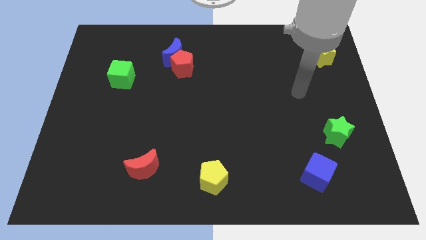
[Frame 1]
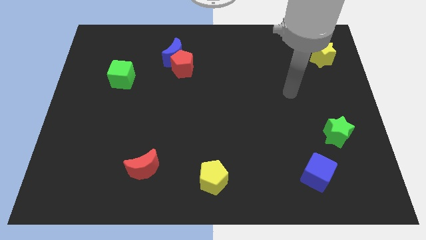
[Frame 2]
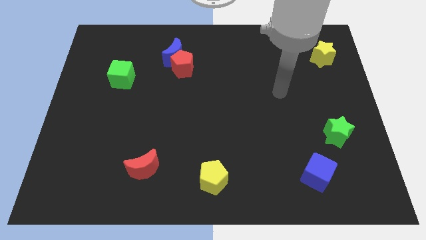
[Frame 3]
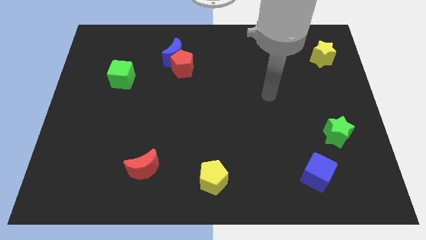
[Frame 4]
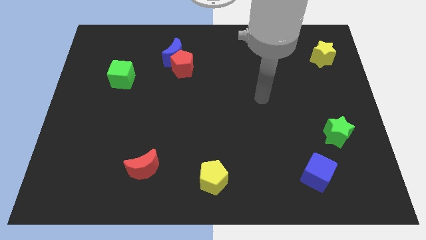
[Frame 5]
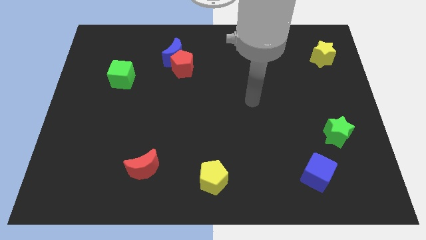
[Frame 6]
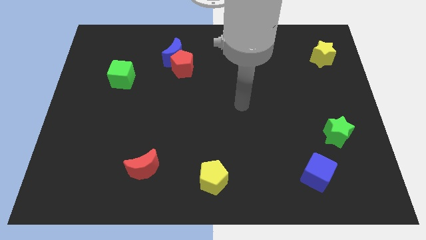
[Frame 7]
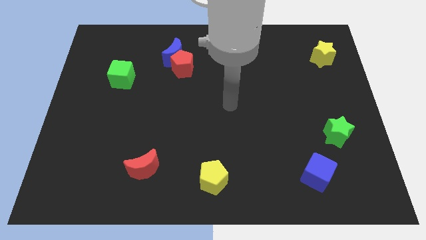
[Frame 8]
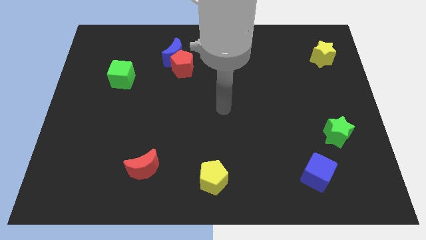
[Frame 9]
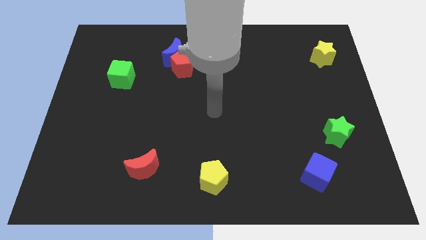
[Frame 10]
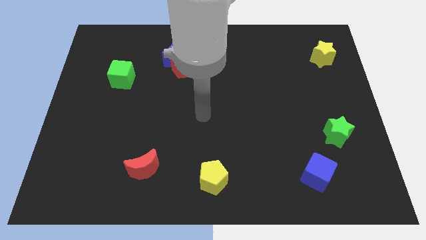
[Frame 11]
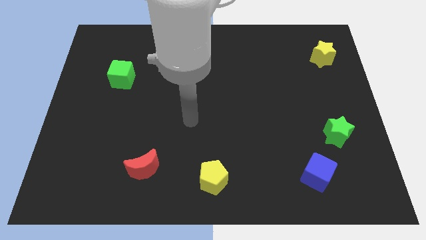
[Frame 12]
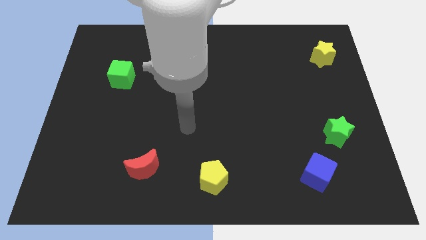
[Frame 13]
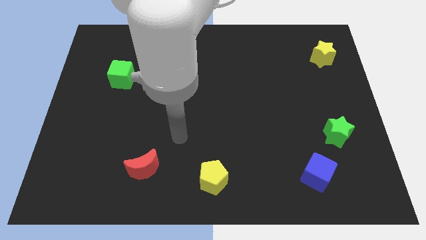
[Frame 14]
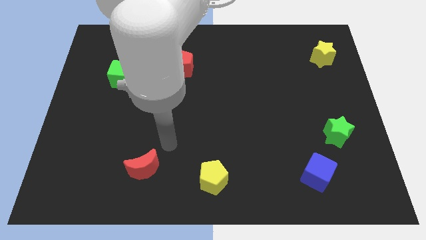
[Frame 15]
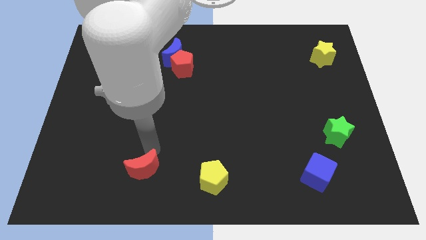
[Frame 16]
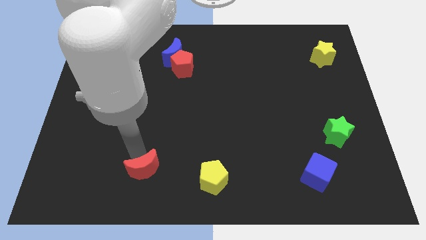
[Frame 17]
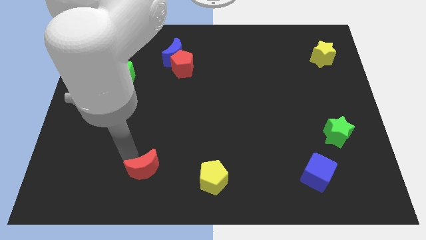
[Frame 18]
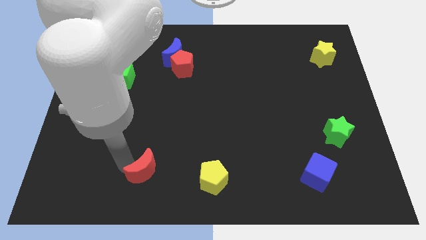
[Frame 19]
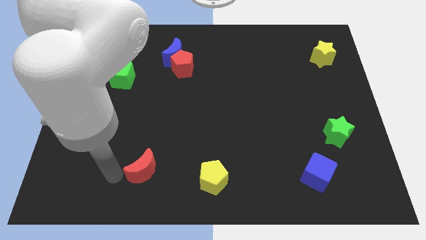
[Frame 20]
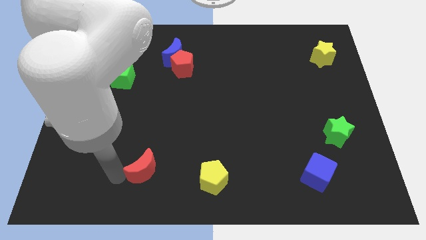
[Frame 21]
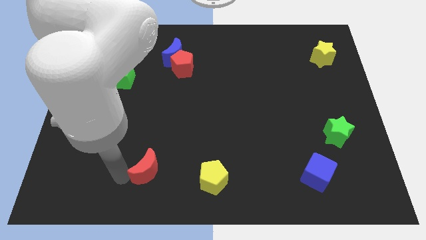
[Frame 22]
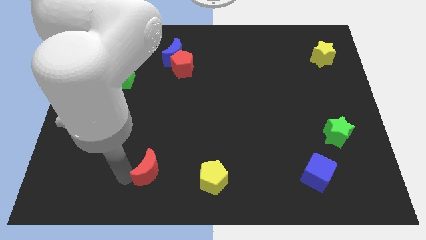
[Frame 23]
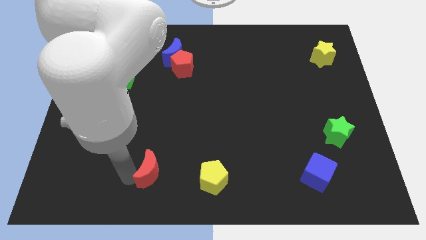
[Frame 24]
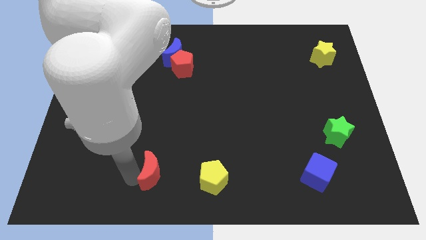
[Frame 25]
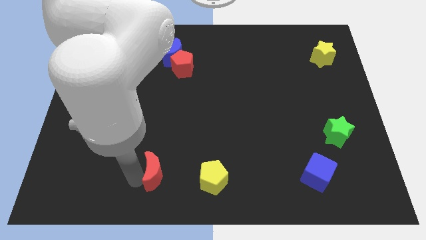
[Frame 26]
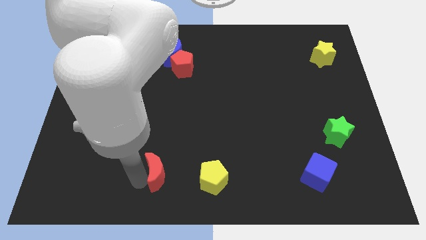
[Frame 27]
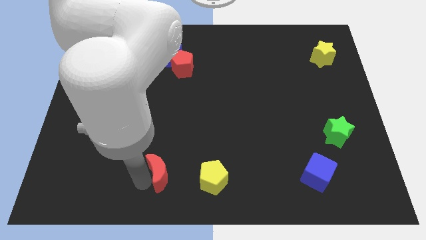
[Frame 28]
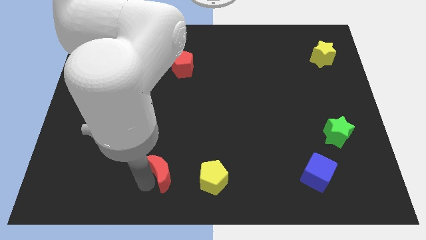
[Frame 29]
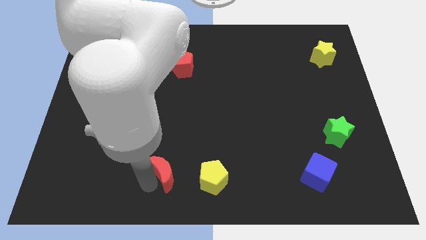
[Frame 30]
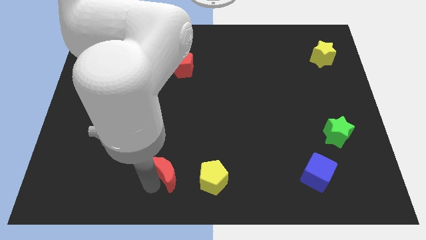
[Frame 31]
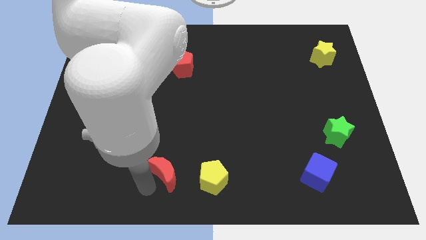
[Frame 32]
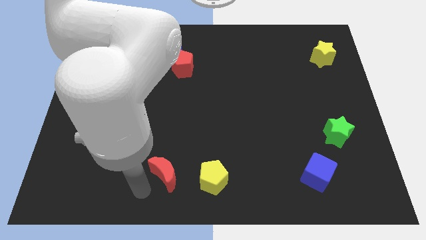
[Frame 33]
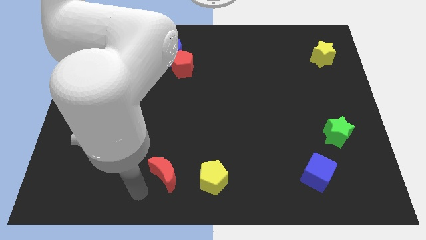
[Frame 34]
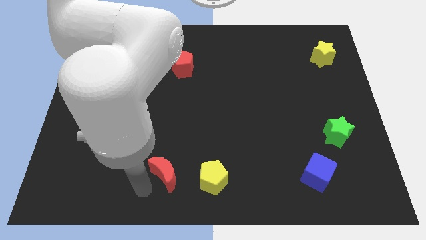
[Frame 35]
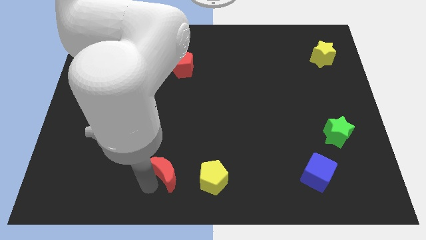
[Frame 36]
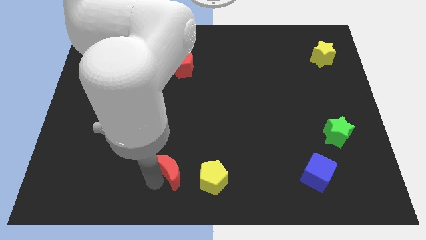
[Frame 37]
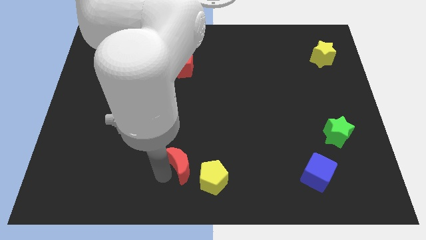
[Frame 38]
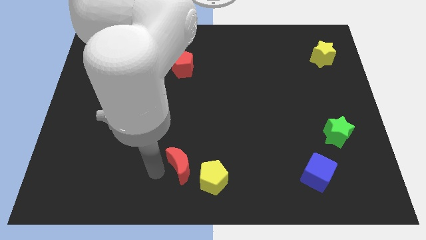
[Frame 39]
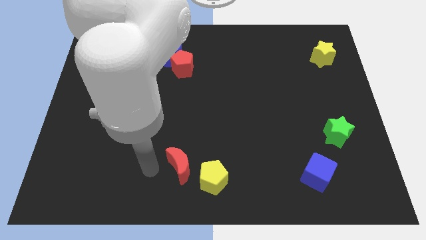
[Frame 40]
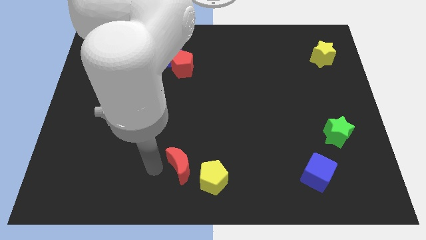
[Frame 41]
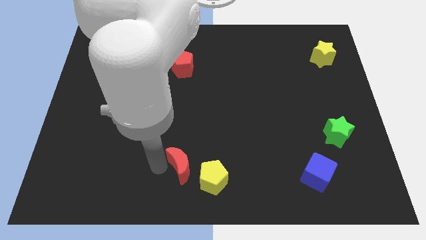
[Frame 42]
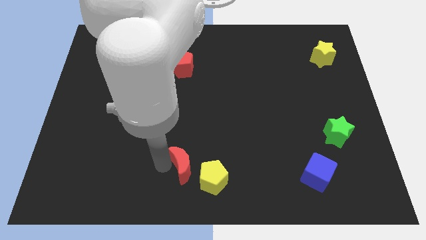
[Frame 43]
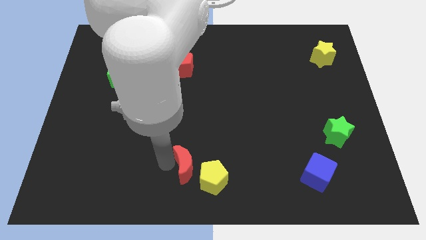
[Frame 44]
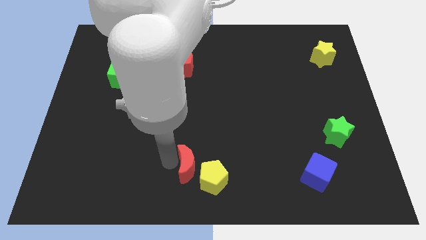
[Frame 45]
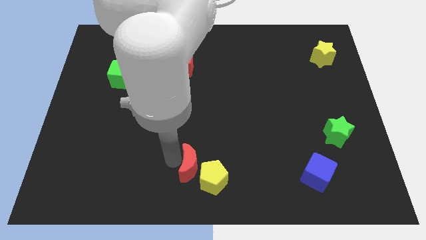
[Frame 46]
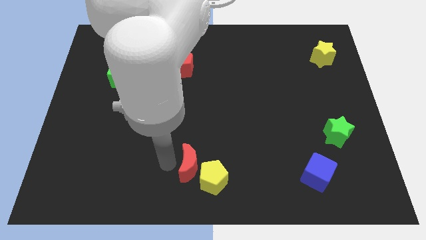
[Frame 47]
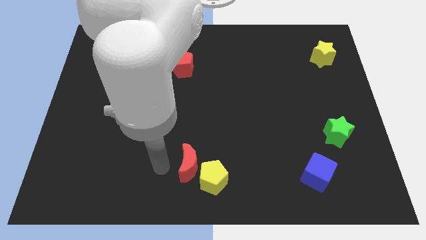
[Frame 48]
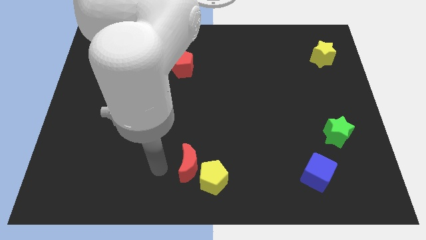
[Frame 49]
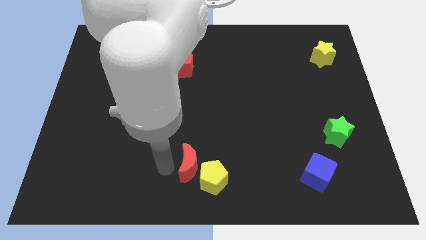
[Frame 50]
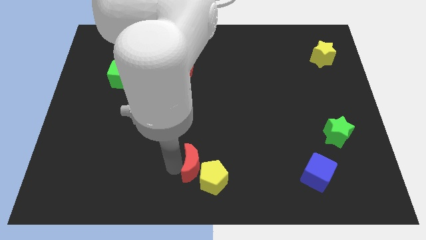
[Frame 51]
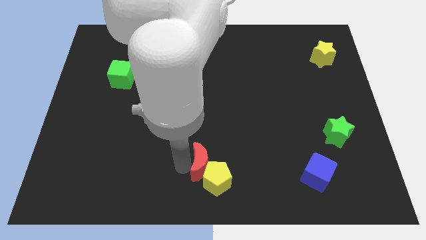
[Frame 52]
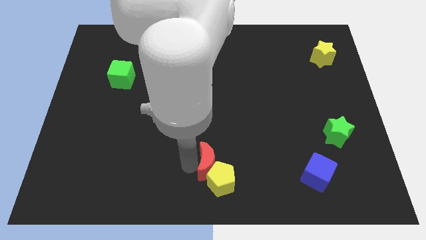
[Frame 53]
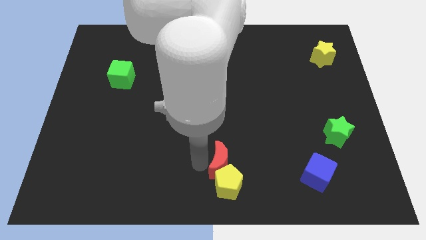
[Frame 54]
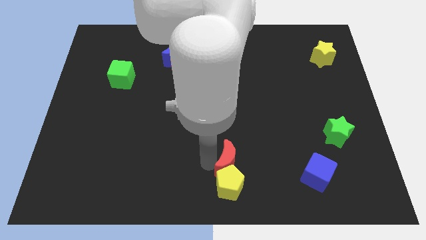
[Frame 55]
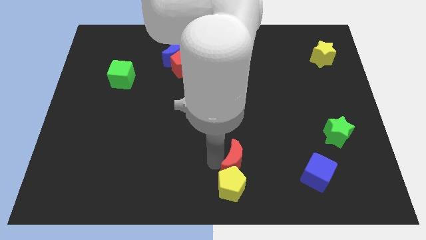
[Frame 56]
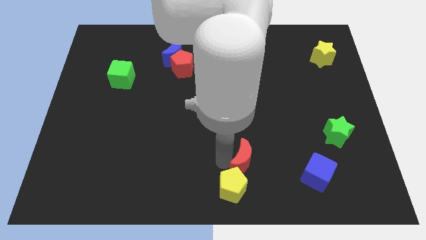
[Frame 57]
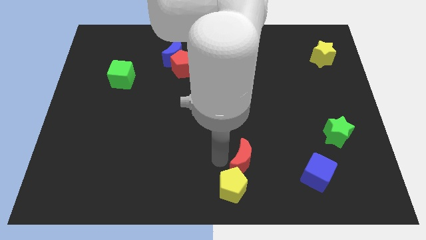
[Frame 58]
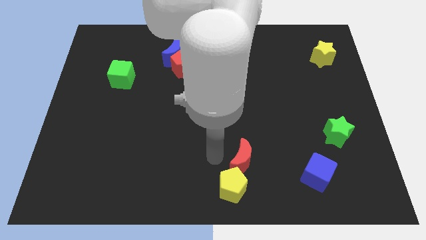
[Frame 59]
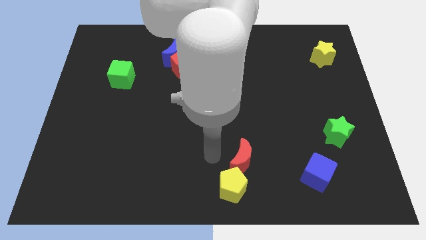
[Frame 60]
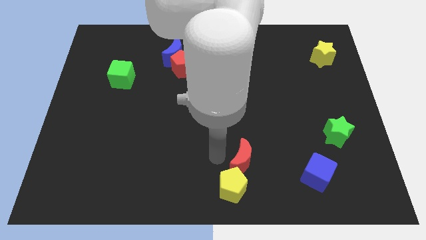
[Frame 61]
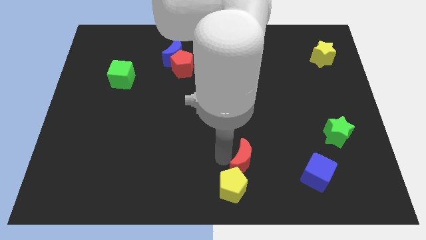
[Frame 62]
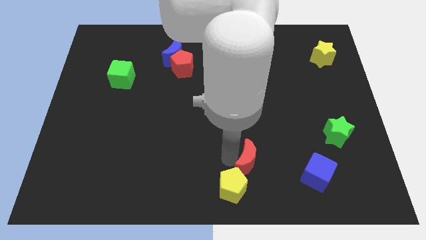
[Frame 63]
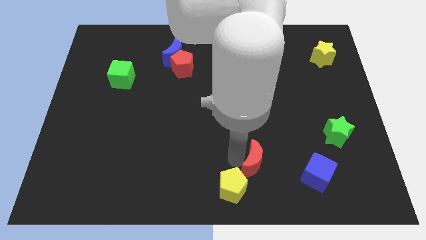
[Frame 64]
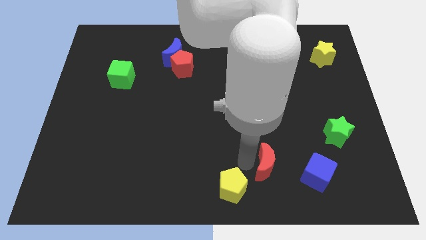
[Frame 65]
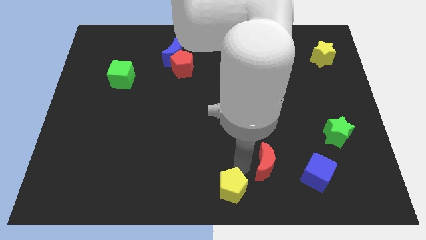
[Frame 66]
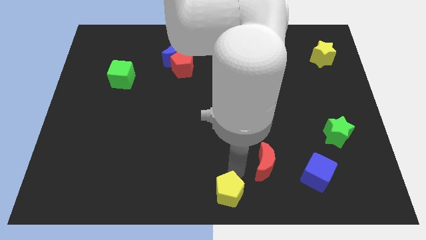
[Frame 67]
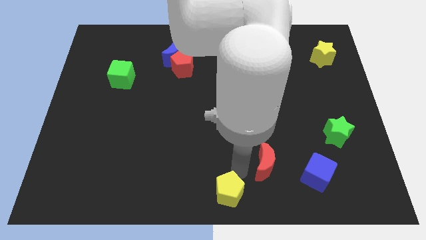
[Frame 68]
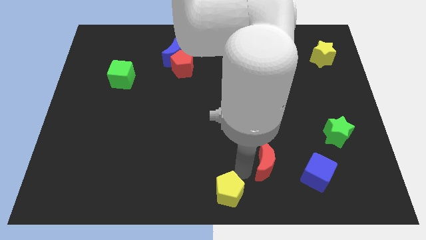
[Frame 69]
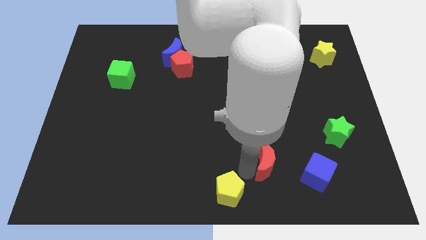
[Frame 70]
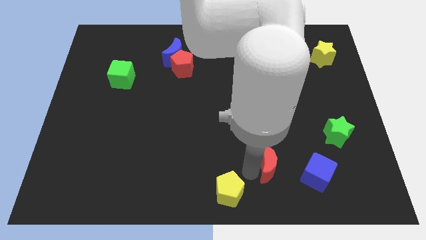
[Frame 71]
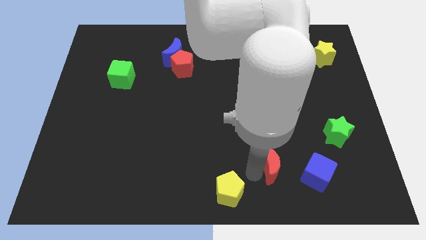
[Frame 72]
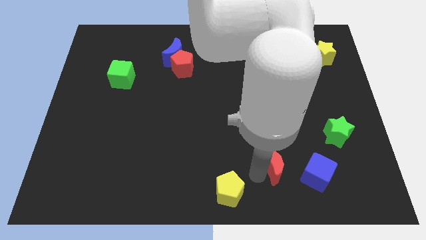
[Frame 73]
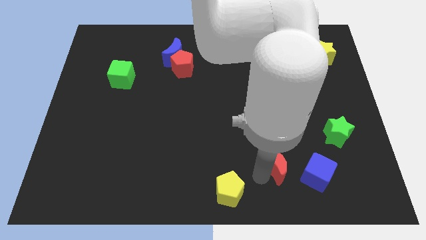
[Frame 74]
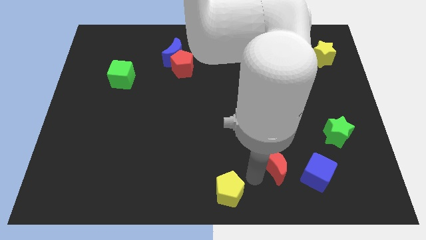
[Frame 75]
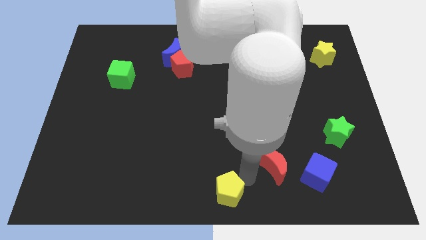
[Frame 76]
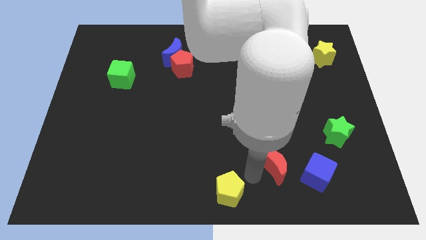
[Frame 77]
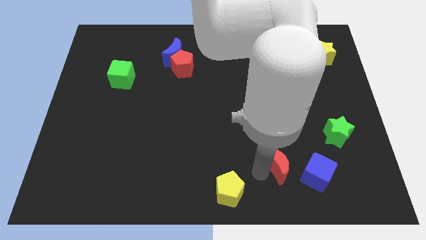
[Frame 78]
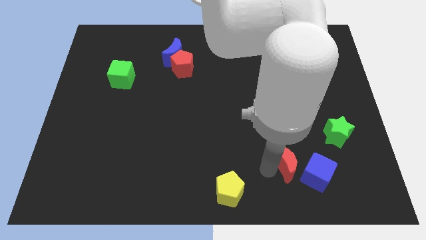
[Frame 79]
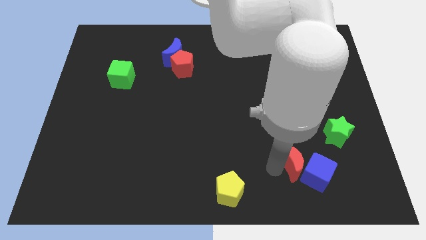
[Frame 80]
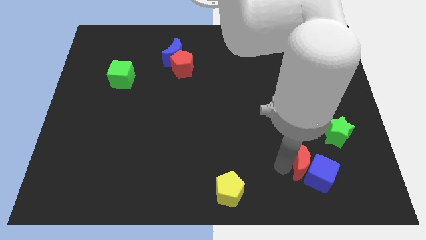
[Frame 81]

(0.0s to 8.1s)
slide the red moon to the bottom left side of the green star
